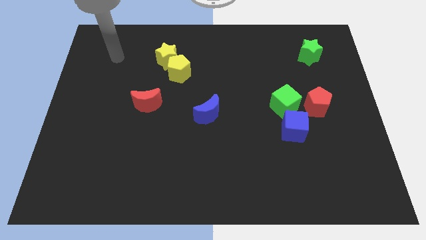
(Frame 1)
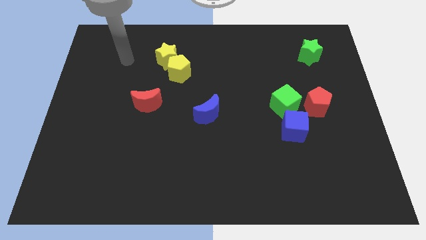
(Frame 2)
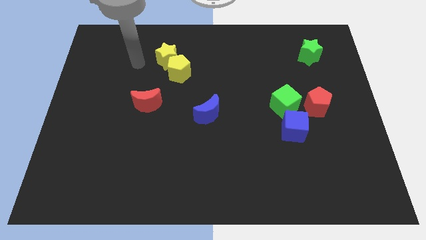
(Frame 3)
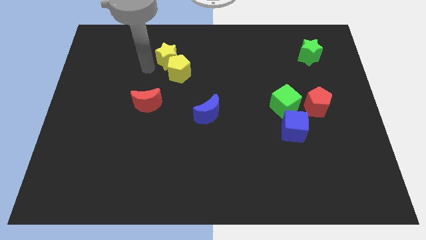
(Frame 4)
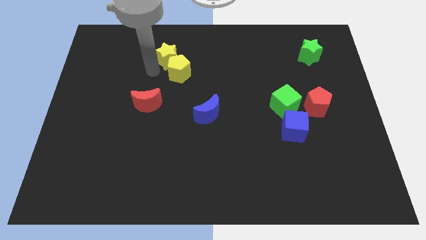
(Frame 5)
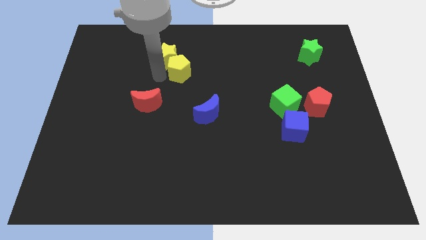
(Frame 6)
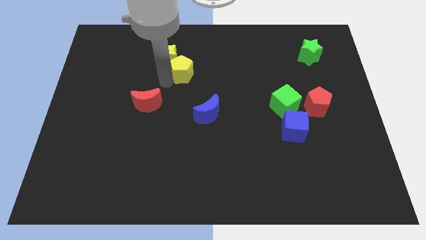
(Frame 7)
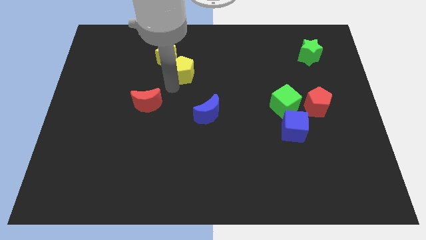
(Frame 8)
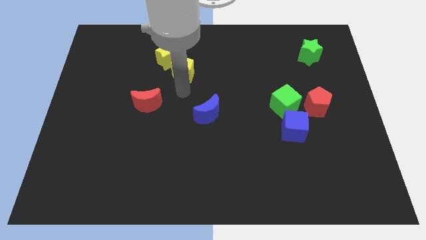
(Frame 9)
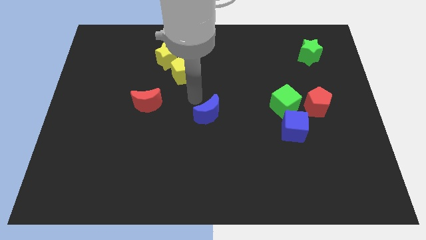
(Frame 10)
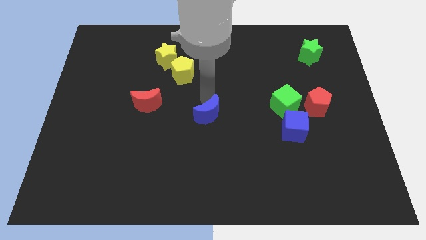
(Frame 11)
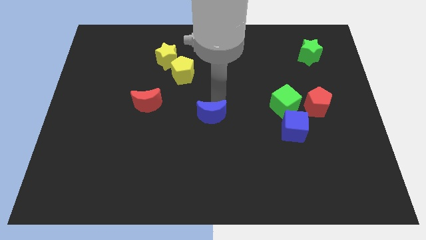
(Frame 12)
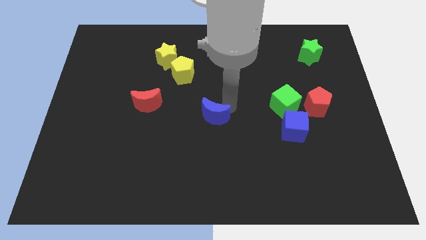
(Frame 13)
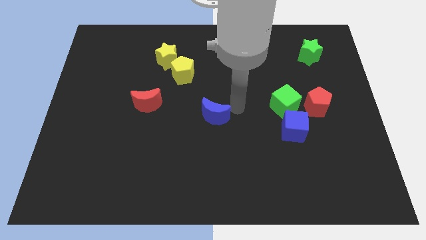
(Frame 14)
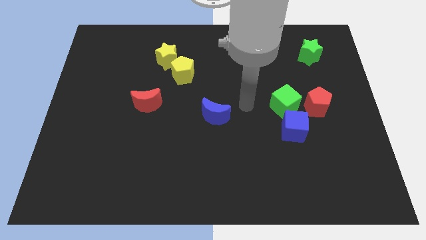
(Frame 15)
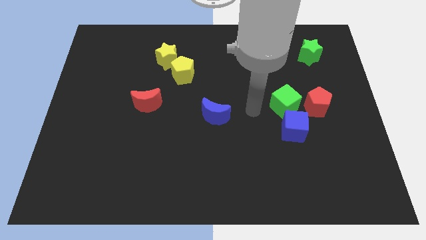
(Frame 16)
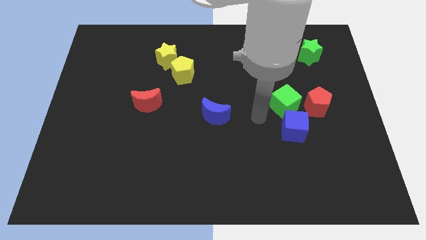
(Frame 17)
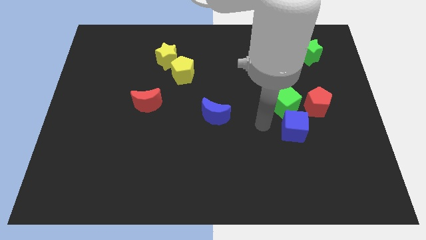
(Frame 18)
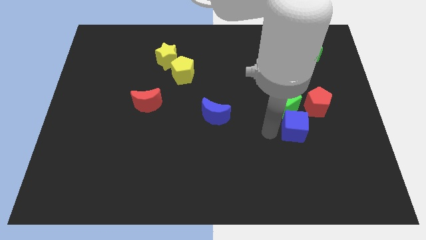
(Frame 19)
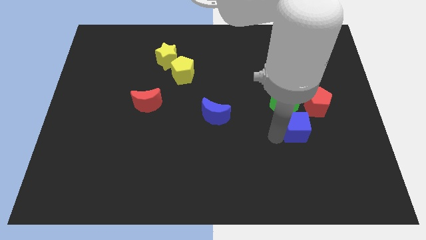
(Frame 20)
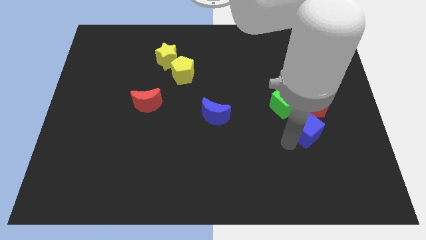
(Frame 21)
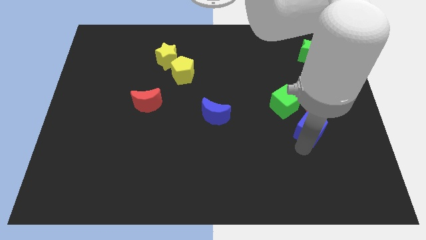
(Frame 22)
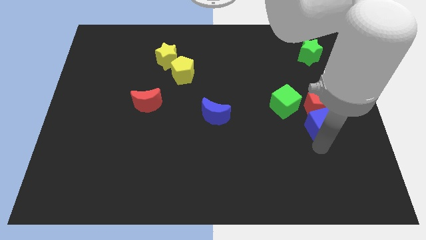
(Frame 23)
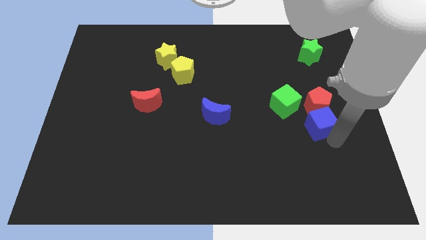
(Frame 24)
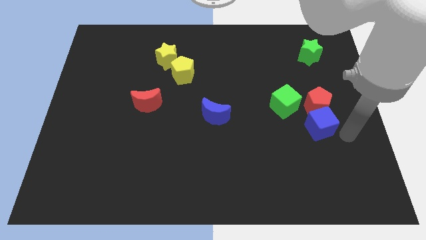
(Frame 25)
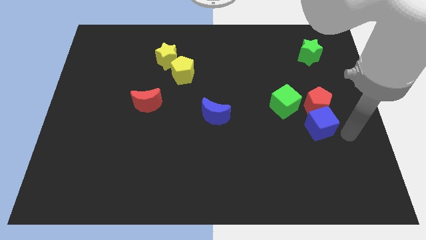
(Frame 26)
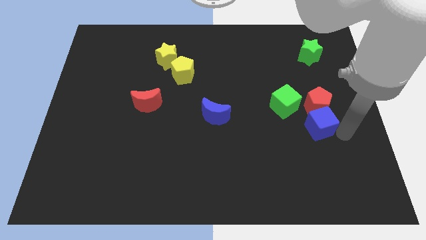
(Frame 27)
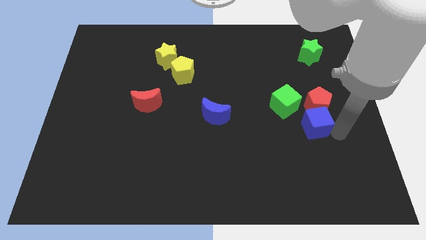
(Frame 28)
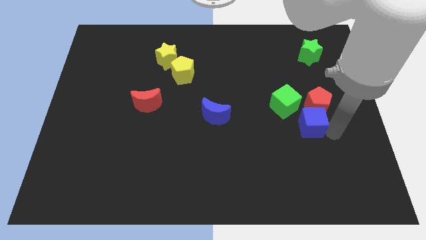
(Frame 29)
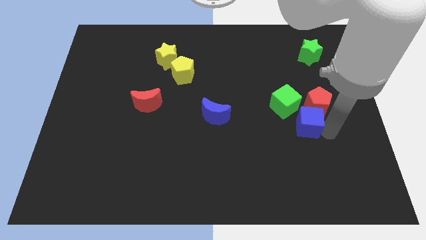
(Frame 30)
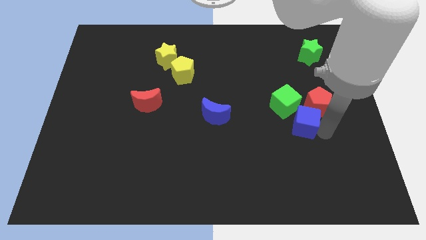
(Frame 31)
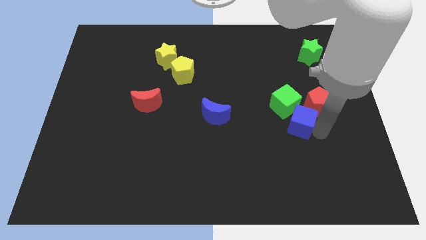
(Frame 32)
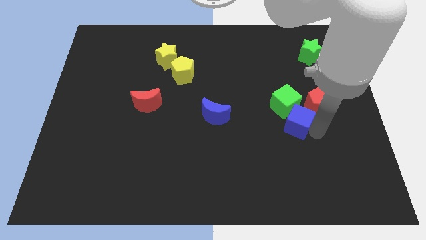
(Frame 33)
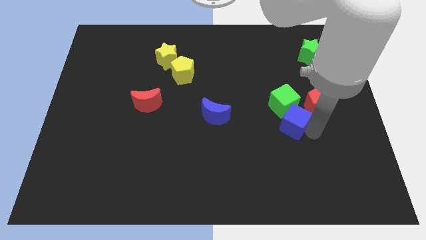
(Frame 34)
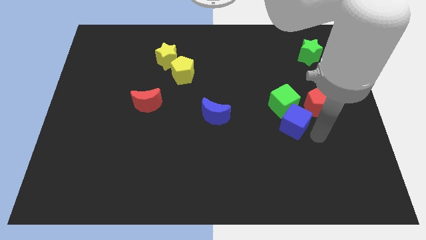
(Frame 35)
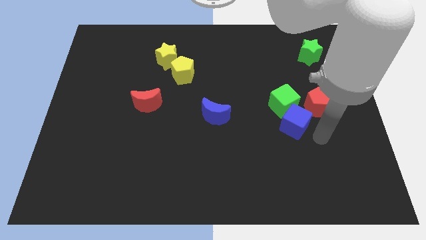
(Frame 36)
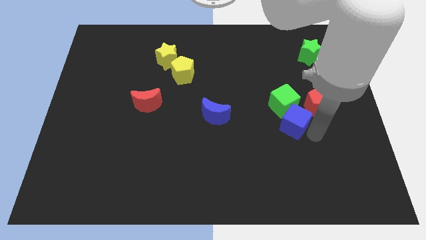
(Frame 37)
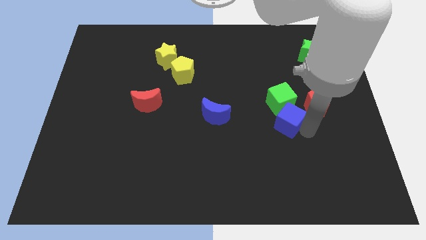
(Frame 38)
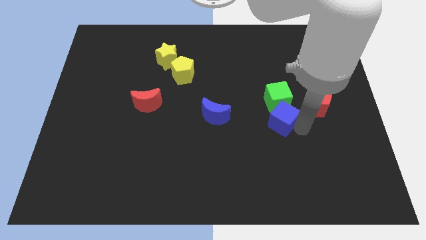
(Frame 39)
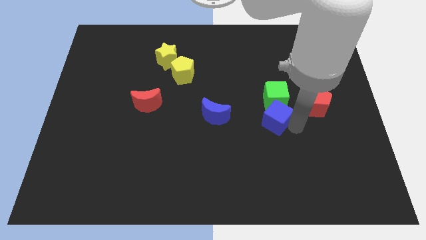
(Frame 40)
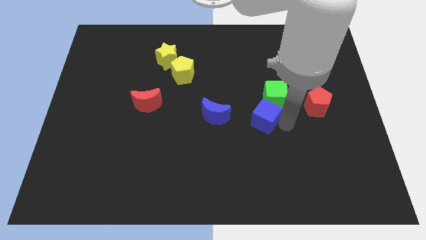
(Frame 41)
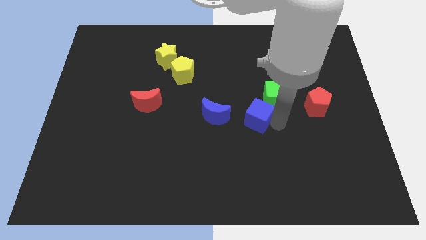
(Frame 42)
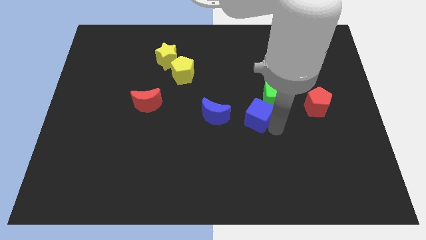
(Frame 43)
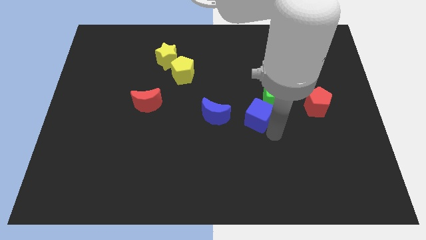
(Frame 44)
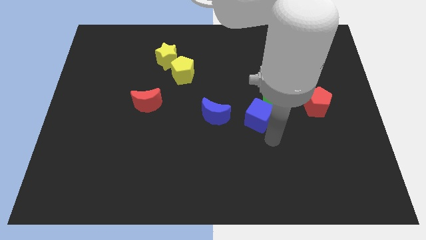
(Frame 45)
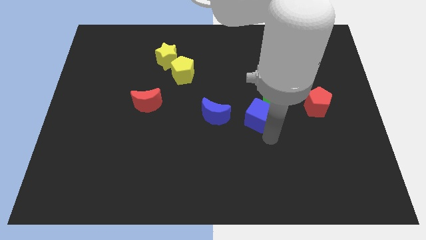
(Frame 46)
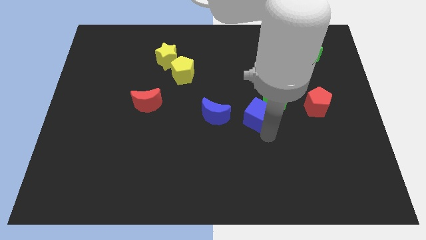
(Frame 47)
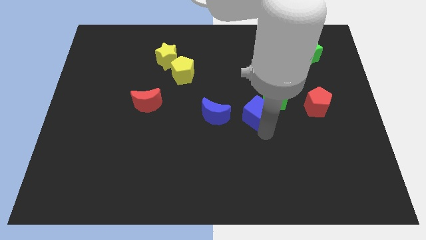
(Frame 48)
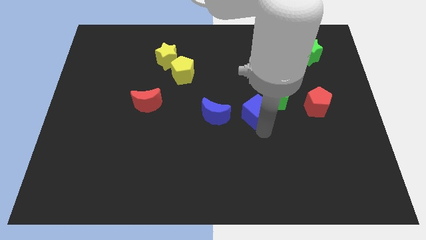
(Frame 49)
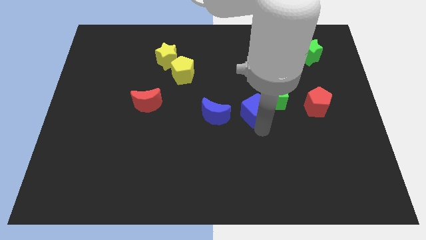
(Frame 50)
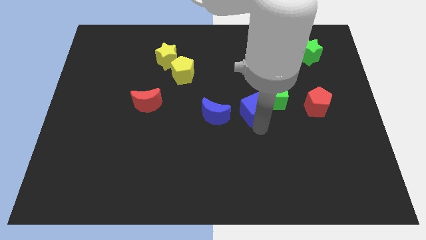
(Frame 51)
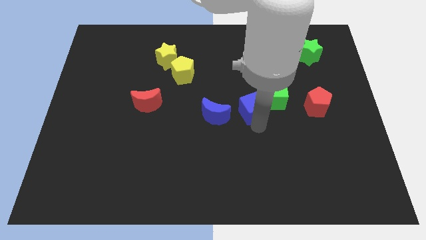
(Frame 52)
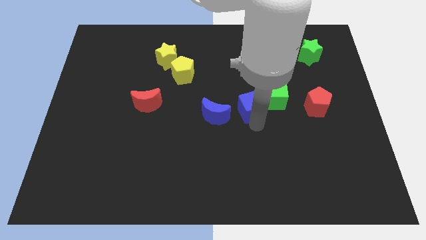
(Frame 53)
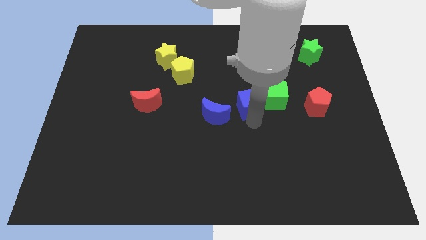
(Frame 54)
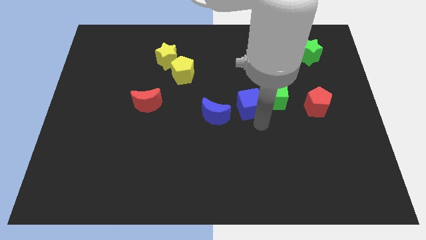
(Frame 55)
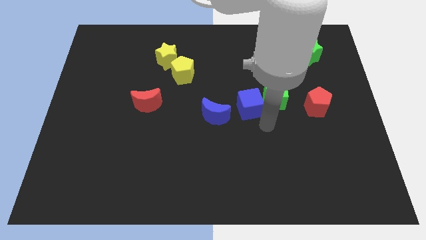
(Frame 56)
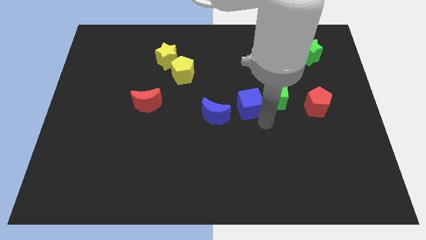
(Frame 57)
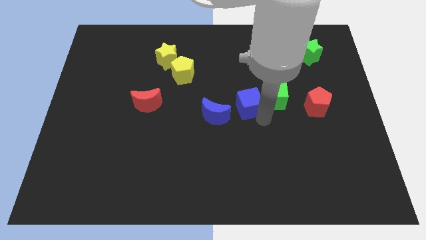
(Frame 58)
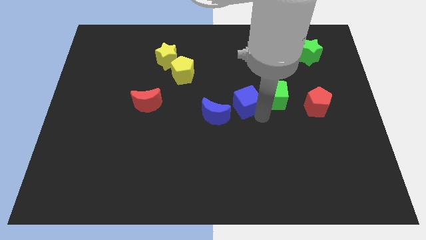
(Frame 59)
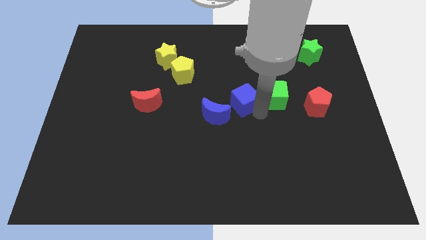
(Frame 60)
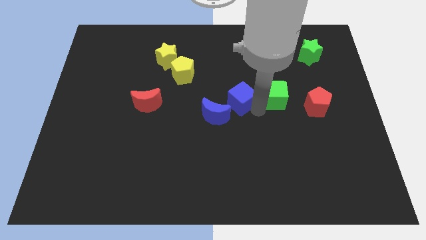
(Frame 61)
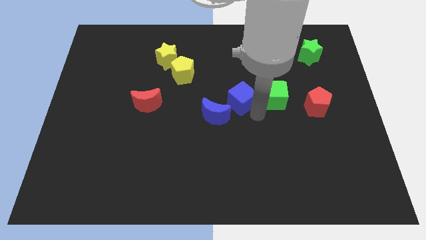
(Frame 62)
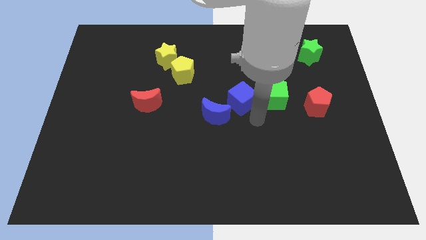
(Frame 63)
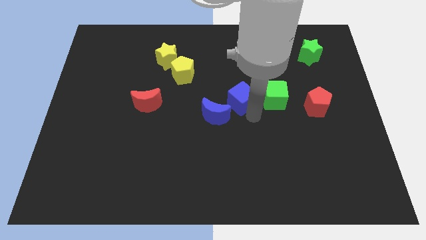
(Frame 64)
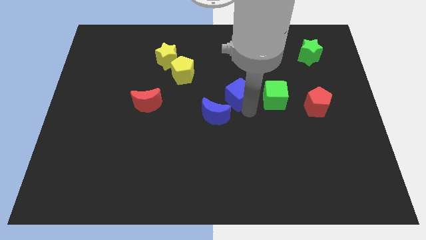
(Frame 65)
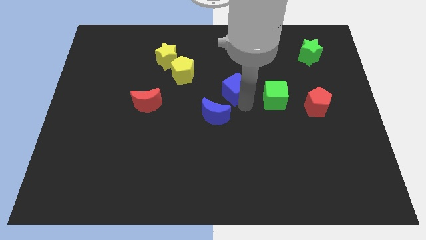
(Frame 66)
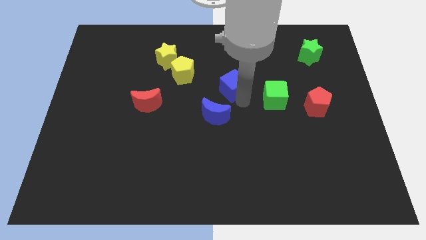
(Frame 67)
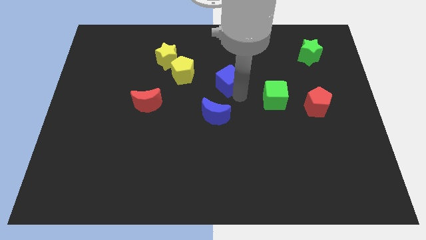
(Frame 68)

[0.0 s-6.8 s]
push the blue cube up and left diagonally

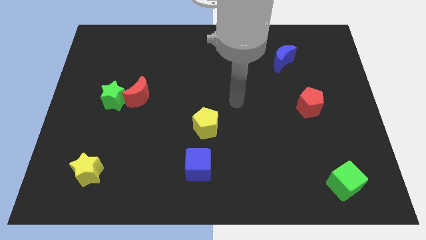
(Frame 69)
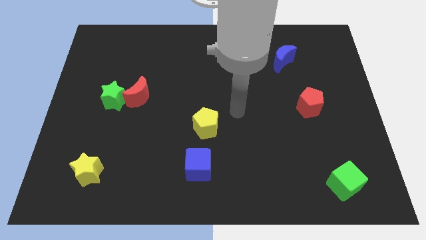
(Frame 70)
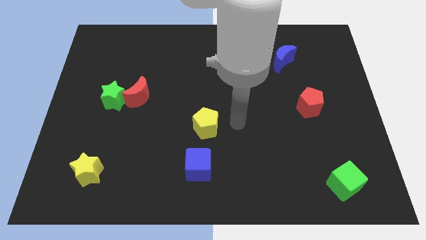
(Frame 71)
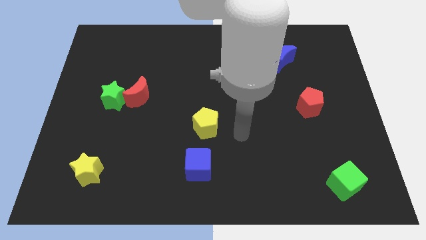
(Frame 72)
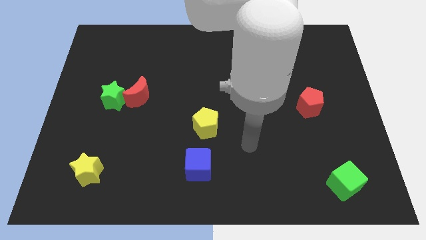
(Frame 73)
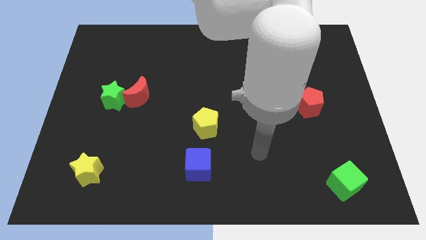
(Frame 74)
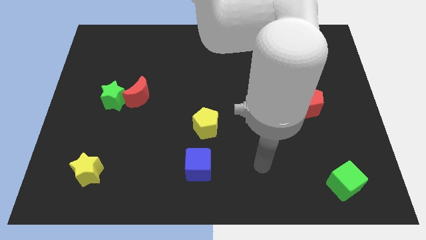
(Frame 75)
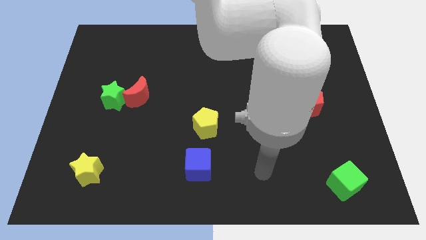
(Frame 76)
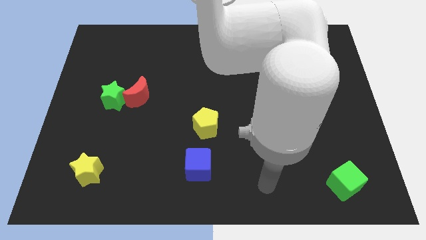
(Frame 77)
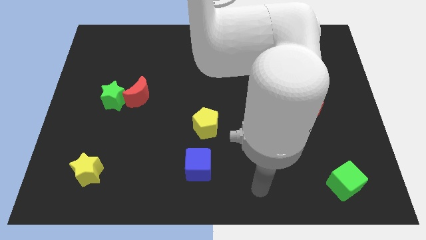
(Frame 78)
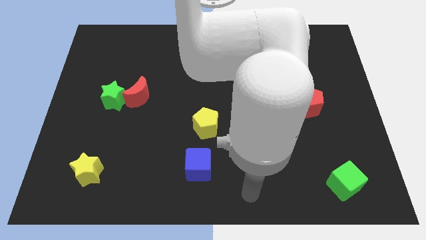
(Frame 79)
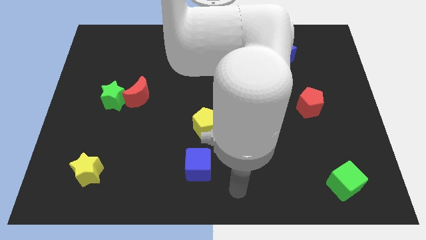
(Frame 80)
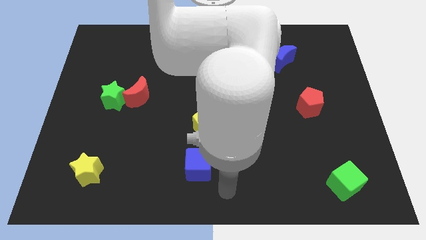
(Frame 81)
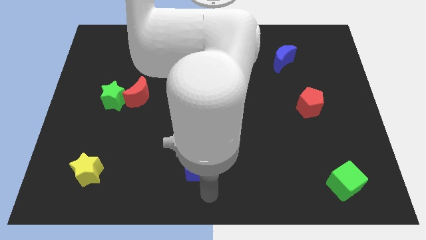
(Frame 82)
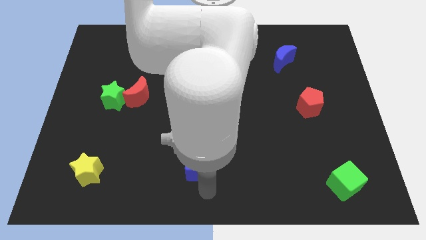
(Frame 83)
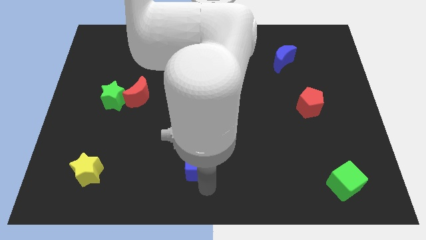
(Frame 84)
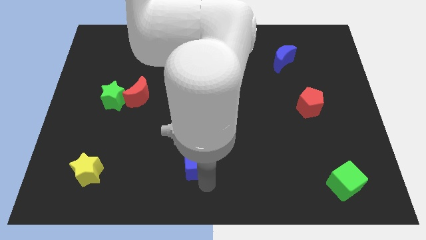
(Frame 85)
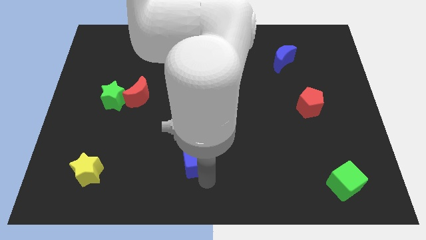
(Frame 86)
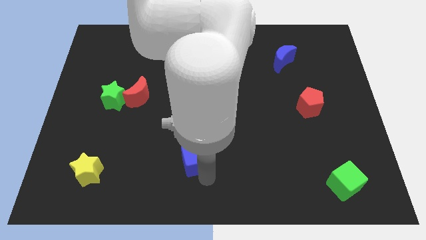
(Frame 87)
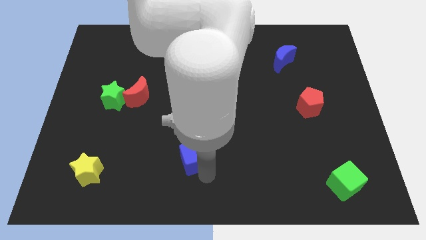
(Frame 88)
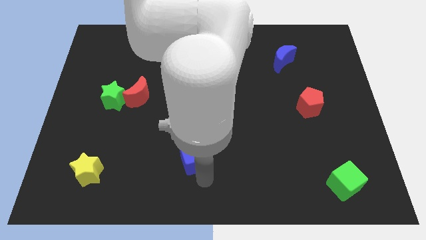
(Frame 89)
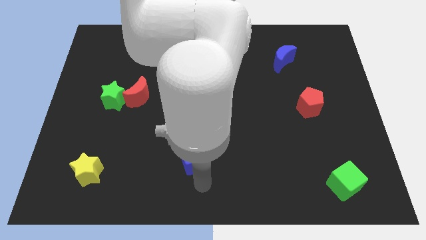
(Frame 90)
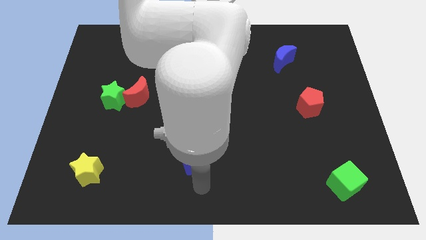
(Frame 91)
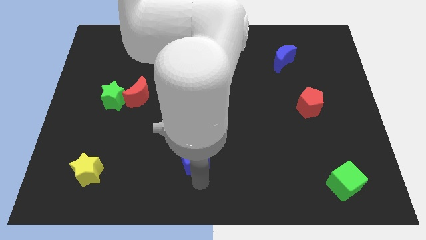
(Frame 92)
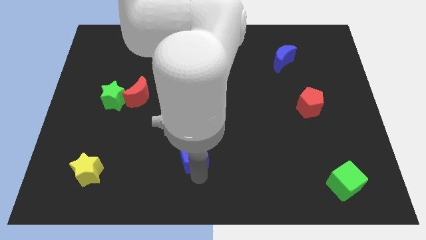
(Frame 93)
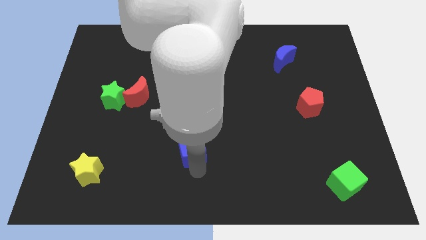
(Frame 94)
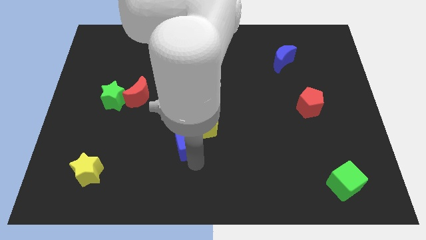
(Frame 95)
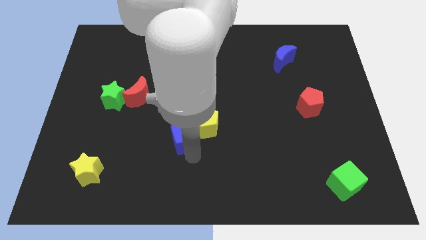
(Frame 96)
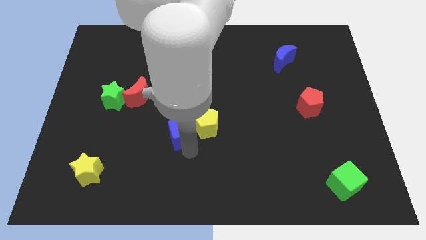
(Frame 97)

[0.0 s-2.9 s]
push the blue cube a little up
